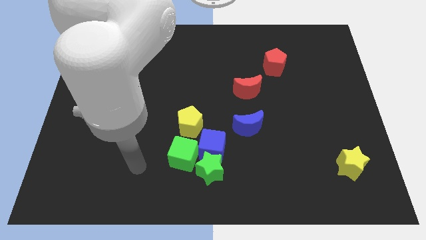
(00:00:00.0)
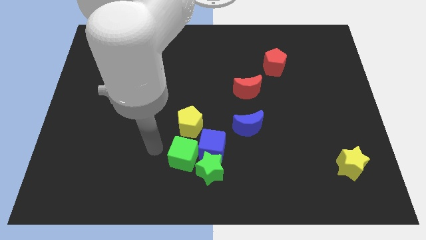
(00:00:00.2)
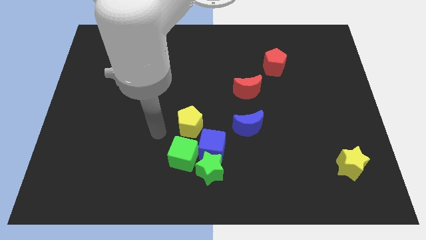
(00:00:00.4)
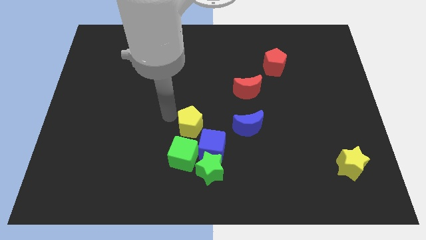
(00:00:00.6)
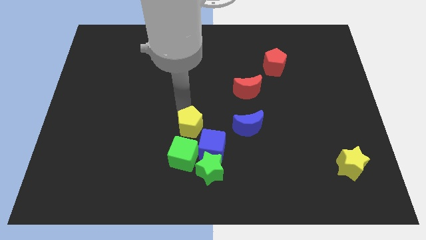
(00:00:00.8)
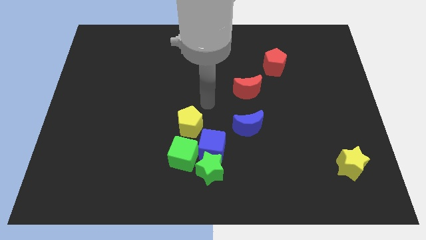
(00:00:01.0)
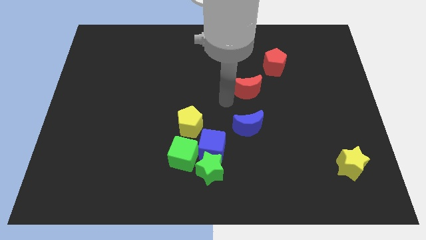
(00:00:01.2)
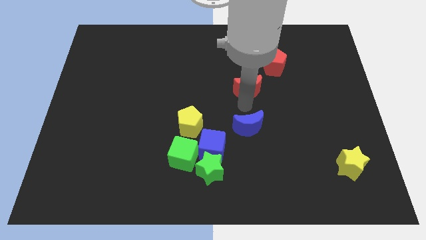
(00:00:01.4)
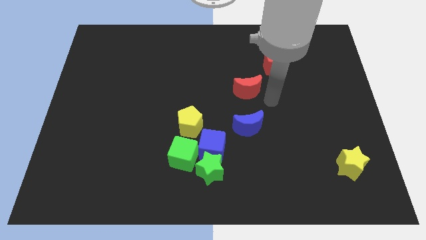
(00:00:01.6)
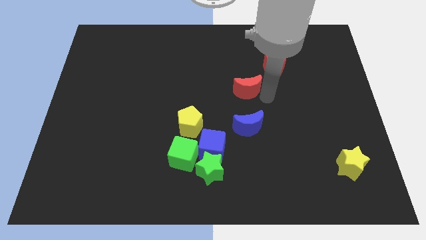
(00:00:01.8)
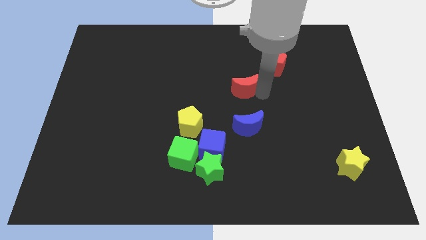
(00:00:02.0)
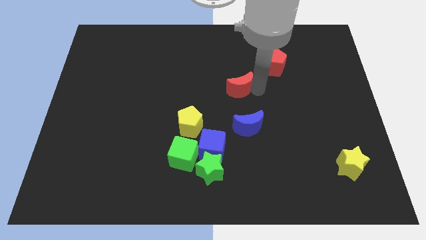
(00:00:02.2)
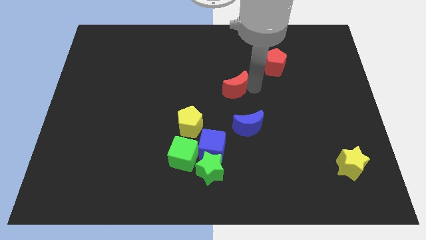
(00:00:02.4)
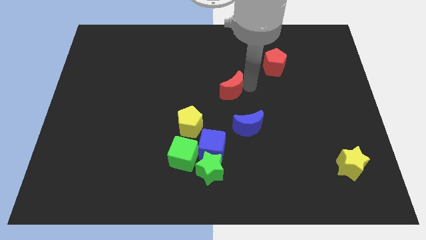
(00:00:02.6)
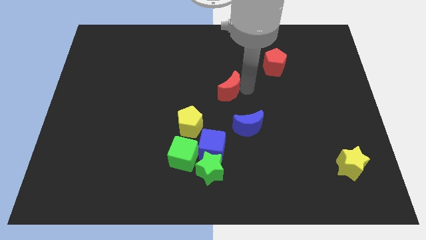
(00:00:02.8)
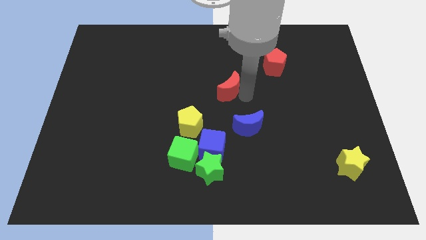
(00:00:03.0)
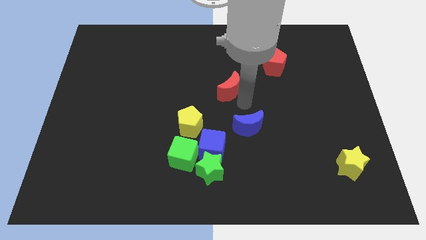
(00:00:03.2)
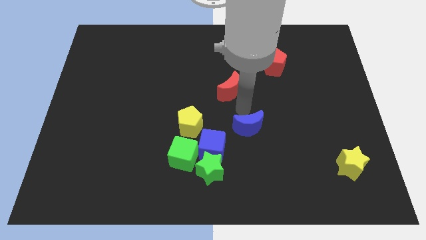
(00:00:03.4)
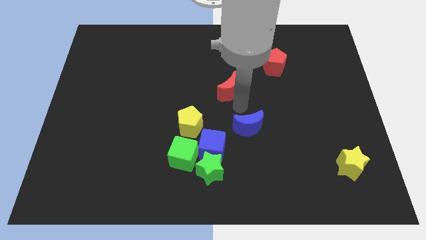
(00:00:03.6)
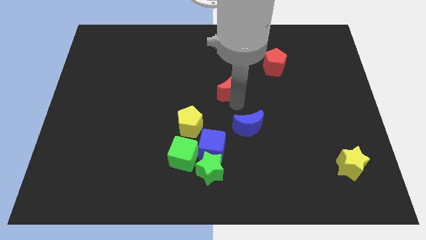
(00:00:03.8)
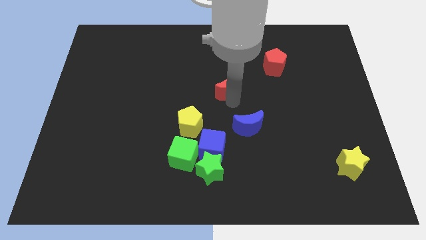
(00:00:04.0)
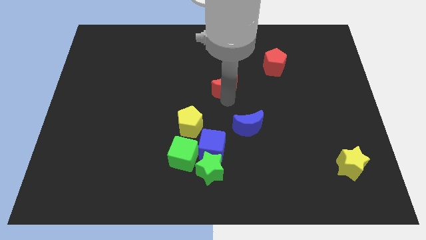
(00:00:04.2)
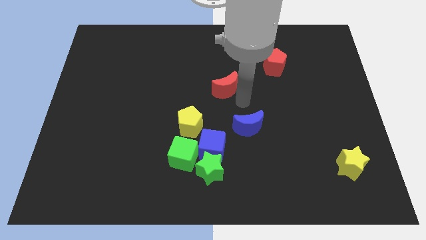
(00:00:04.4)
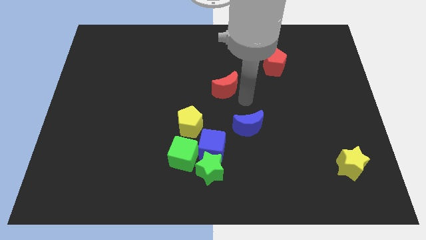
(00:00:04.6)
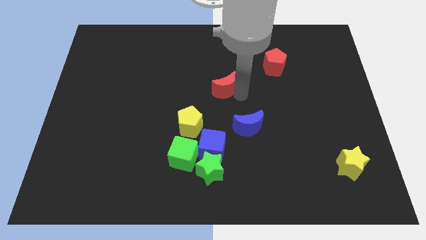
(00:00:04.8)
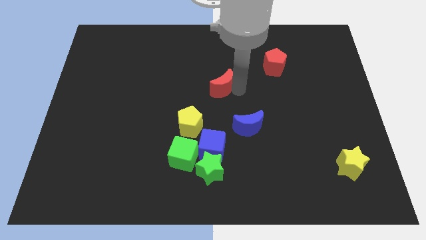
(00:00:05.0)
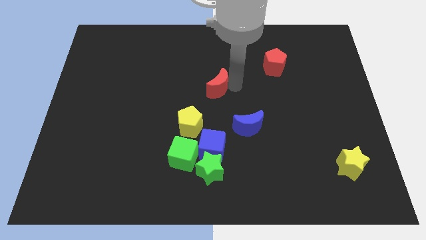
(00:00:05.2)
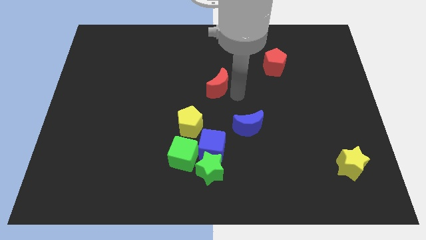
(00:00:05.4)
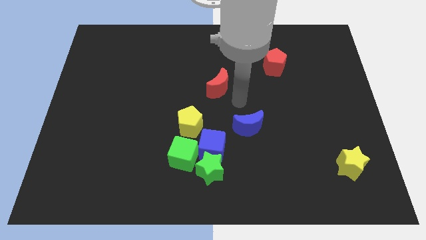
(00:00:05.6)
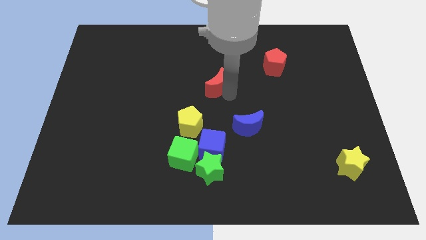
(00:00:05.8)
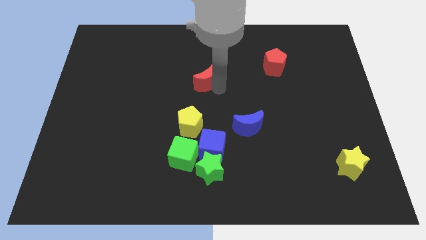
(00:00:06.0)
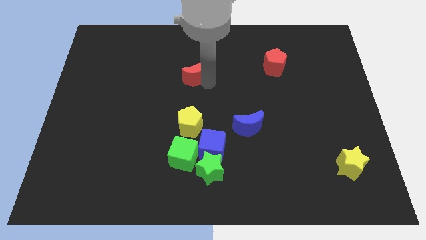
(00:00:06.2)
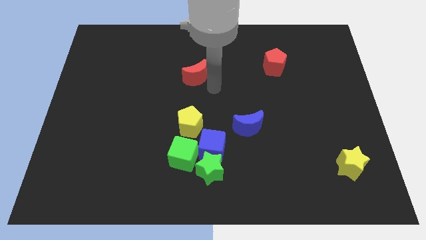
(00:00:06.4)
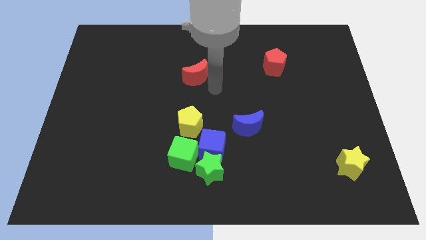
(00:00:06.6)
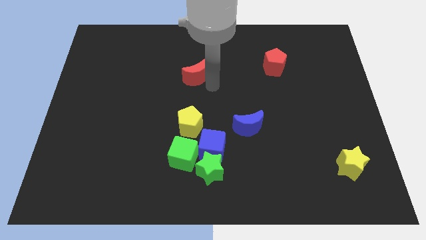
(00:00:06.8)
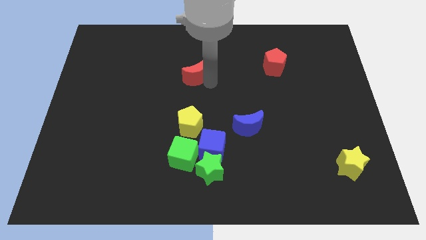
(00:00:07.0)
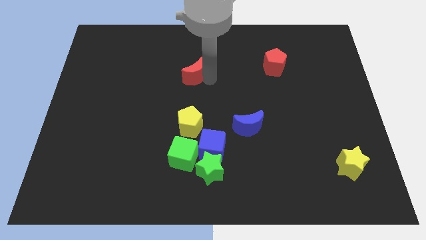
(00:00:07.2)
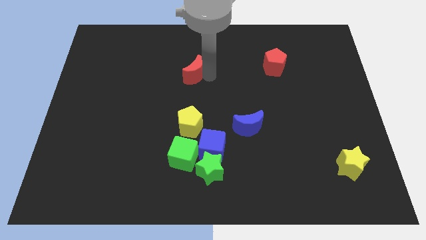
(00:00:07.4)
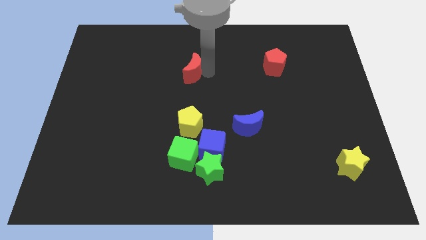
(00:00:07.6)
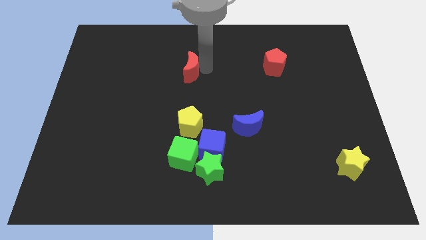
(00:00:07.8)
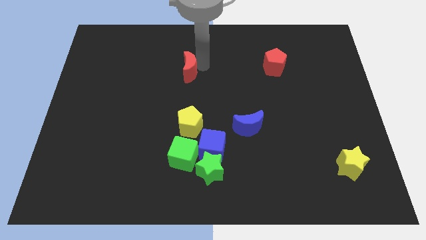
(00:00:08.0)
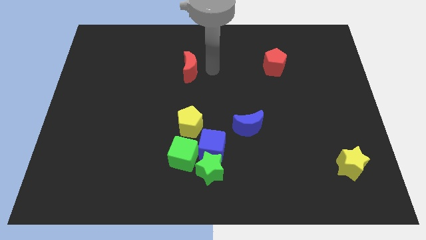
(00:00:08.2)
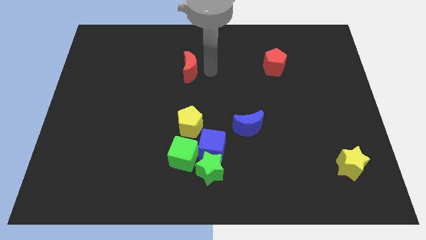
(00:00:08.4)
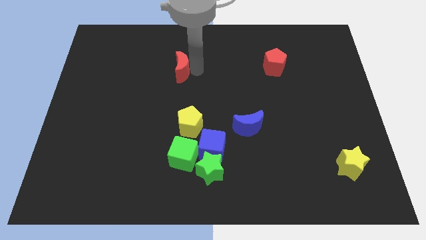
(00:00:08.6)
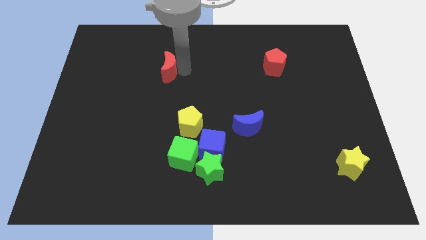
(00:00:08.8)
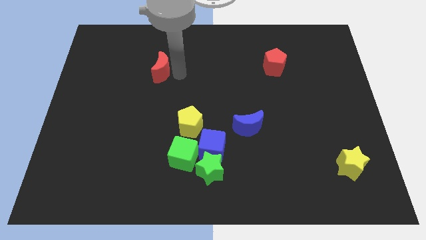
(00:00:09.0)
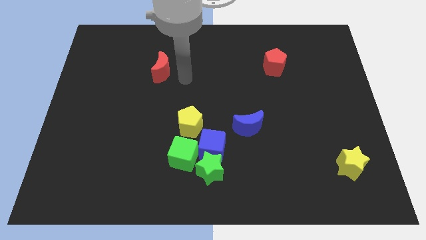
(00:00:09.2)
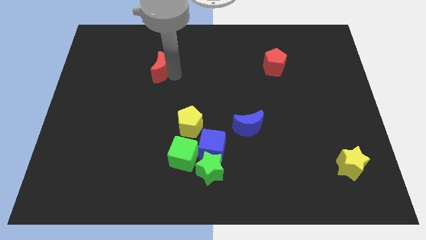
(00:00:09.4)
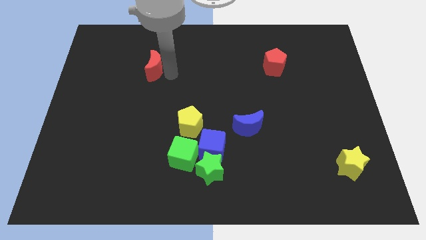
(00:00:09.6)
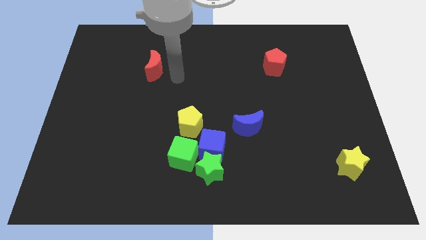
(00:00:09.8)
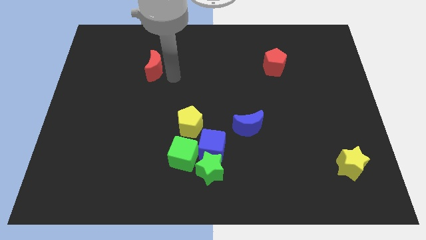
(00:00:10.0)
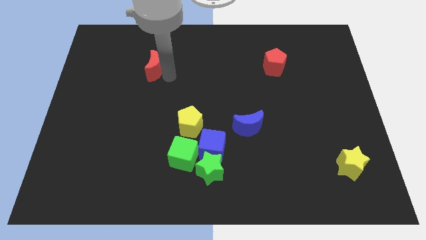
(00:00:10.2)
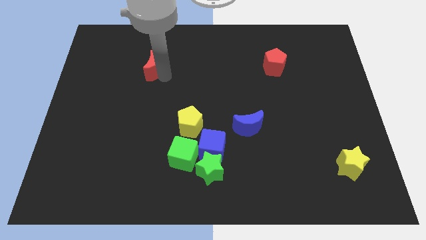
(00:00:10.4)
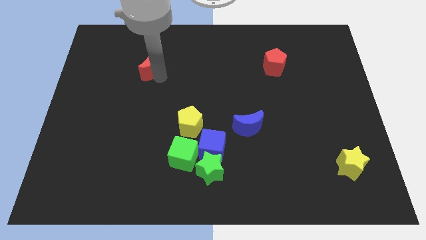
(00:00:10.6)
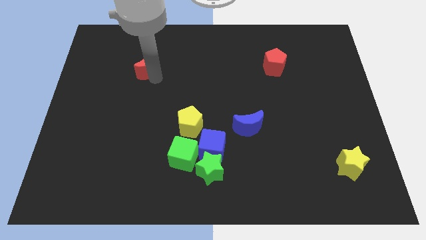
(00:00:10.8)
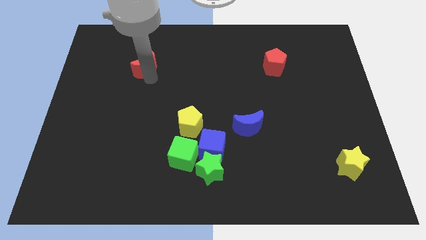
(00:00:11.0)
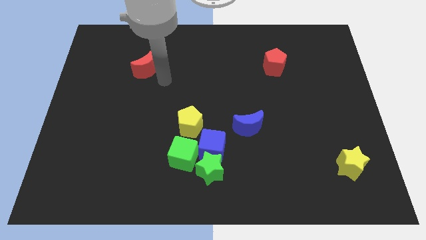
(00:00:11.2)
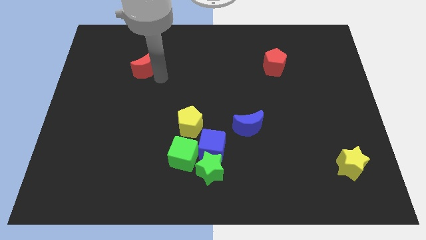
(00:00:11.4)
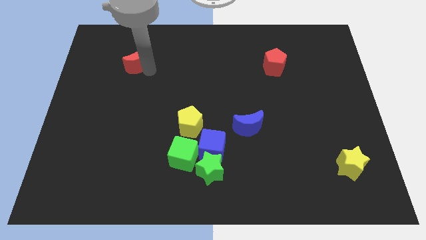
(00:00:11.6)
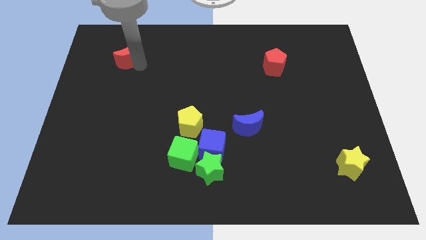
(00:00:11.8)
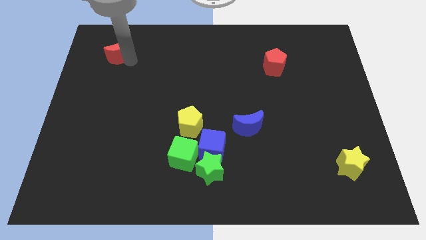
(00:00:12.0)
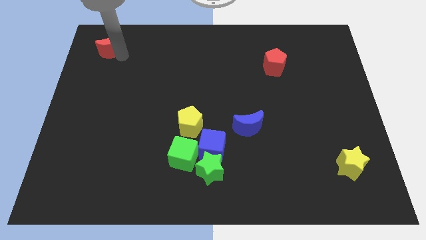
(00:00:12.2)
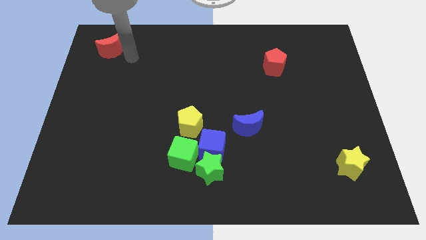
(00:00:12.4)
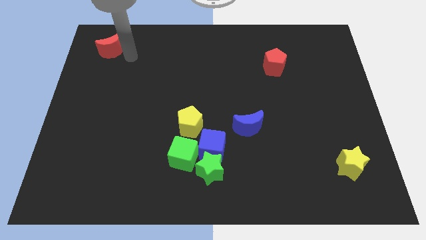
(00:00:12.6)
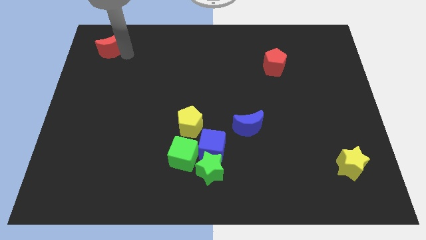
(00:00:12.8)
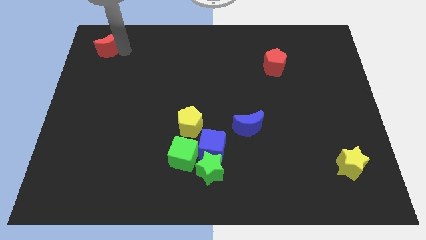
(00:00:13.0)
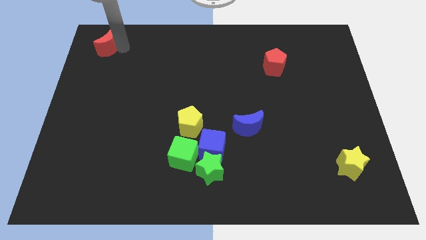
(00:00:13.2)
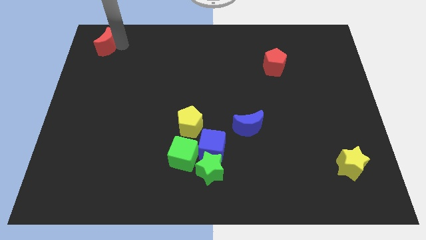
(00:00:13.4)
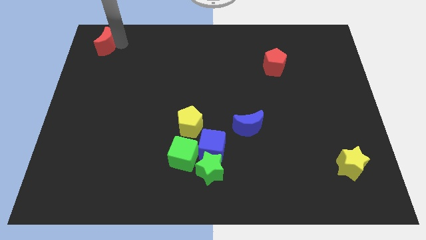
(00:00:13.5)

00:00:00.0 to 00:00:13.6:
put the red moon to the top left of the board
